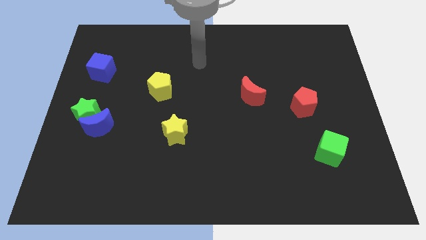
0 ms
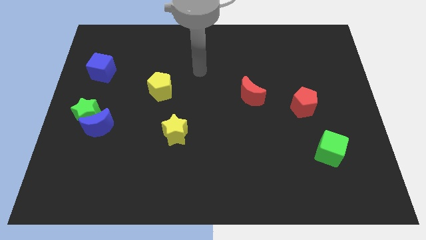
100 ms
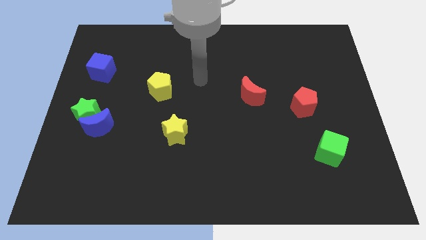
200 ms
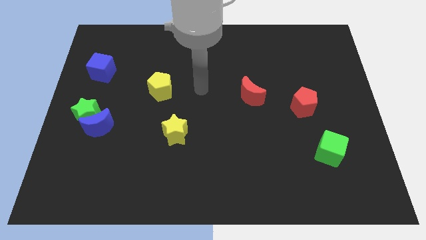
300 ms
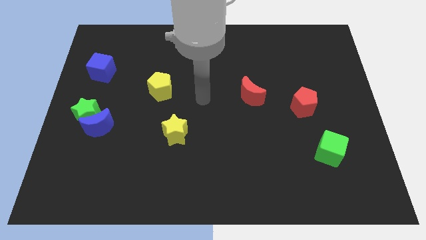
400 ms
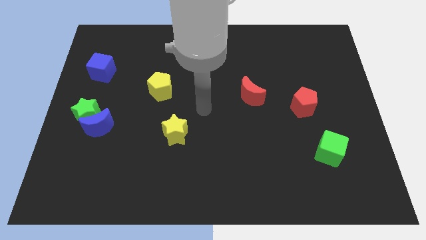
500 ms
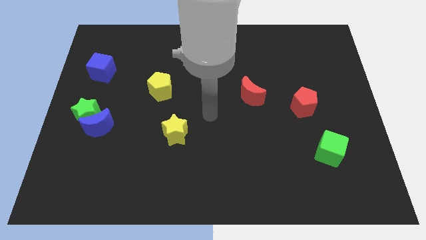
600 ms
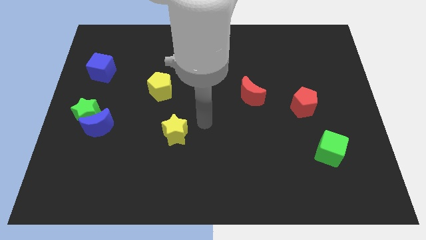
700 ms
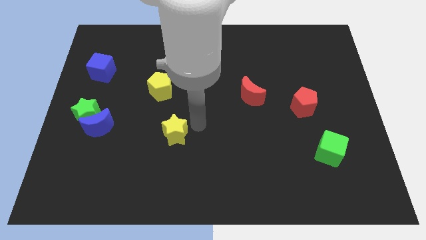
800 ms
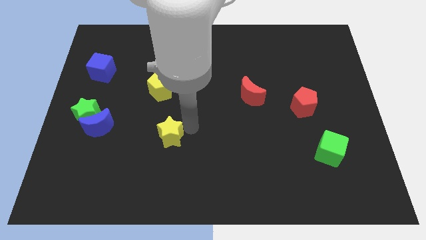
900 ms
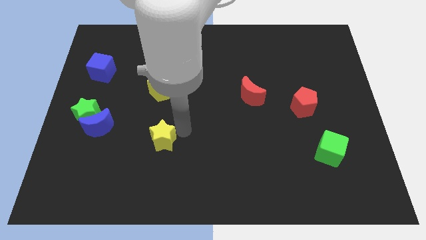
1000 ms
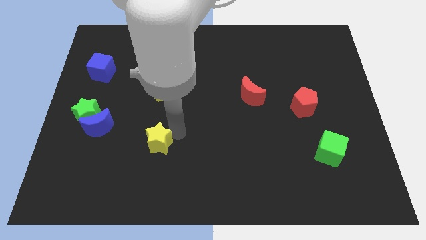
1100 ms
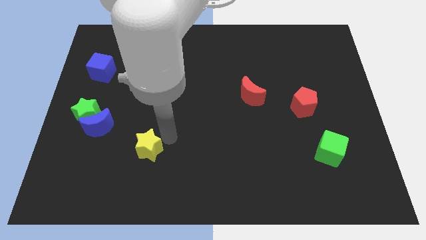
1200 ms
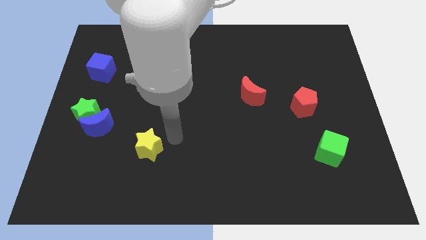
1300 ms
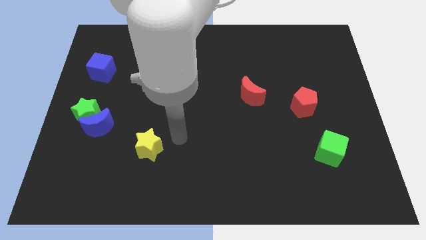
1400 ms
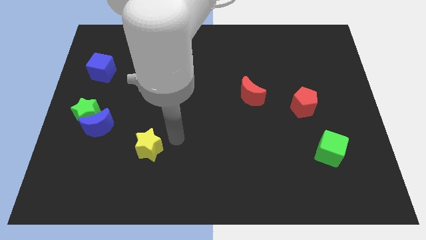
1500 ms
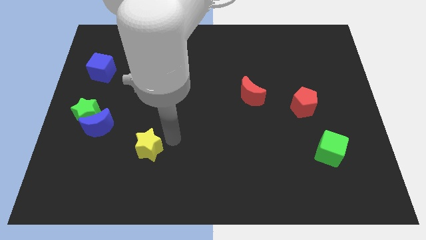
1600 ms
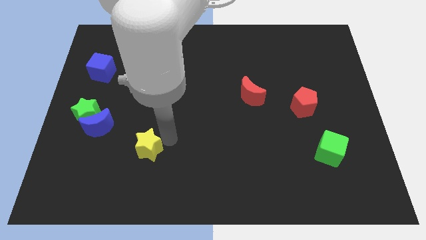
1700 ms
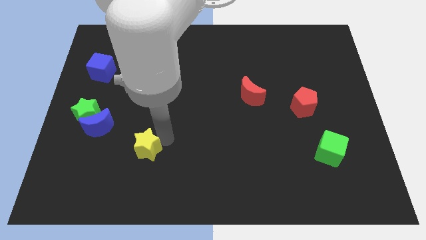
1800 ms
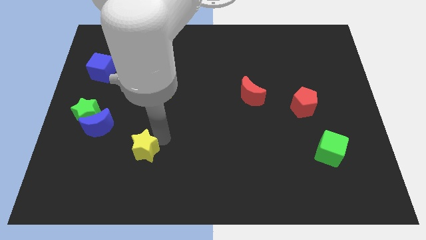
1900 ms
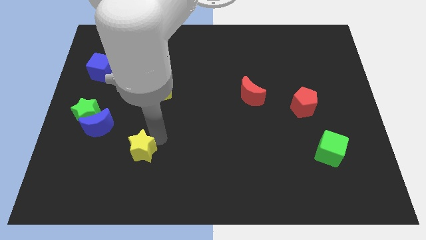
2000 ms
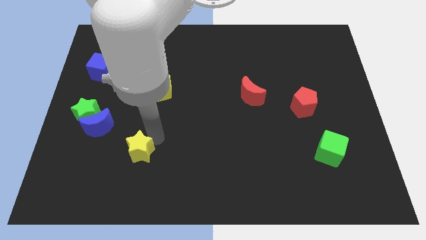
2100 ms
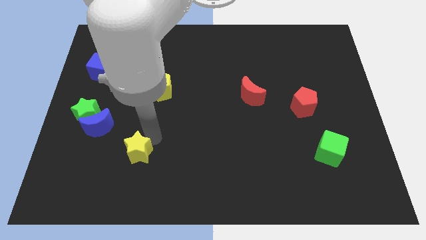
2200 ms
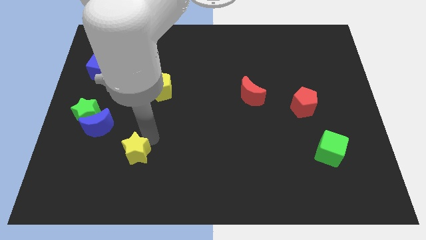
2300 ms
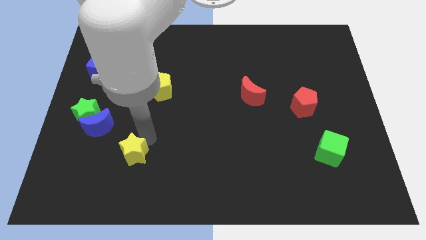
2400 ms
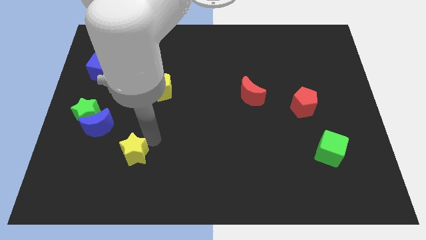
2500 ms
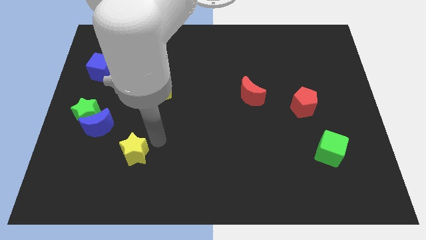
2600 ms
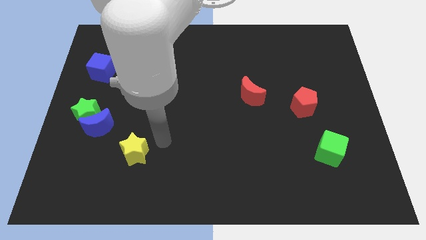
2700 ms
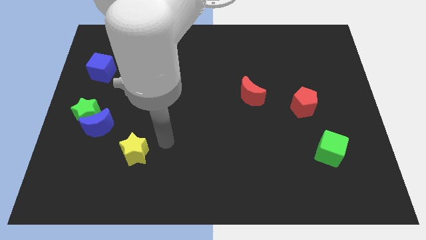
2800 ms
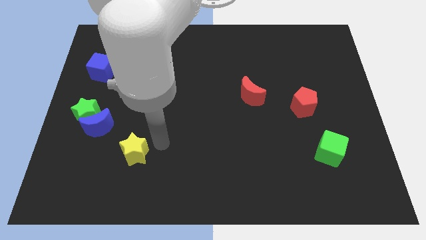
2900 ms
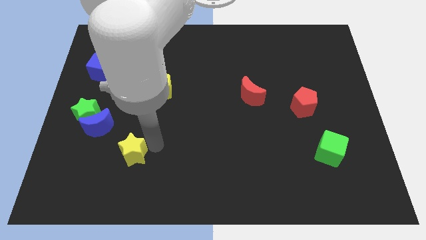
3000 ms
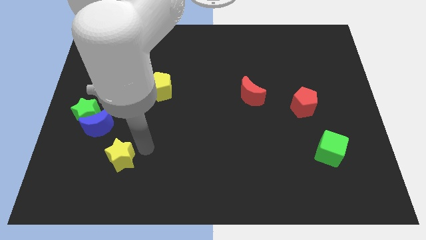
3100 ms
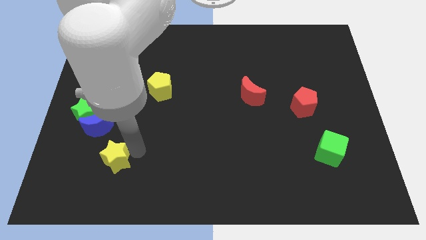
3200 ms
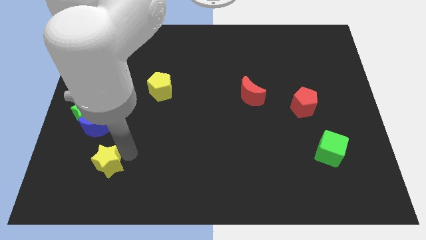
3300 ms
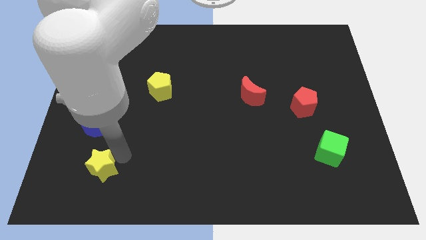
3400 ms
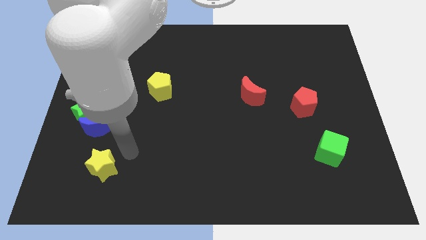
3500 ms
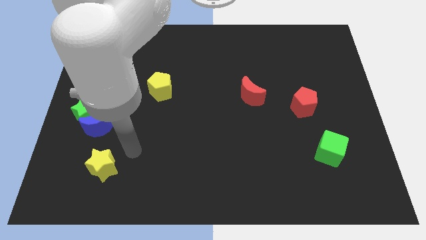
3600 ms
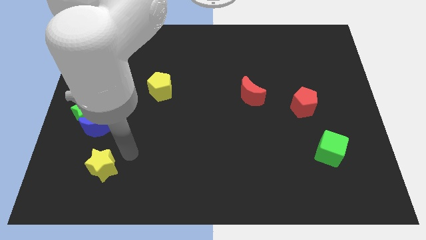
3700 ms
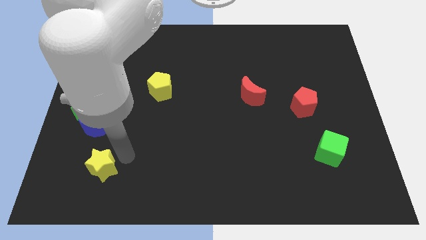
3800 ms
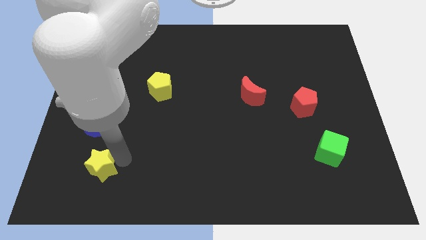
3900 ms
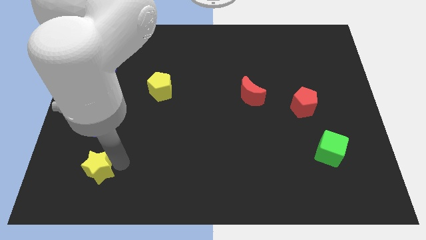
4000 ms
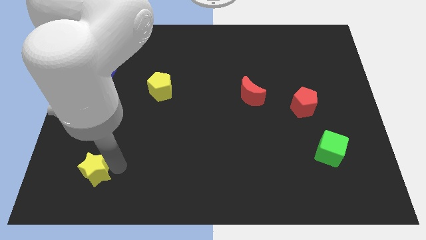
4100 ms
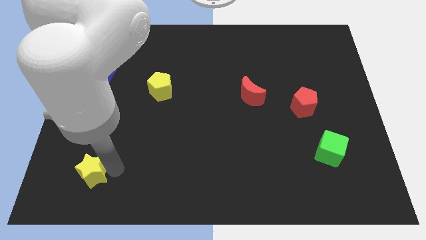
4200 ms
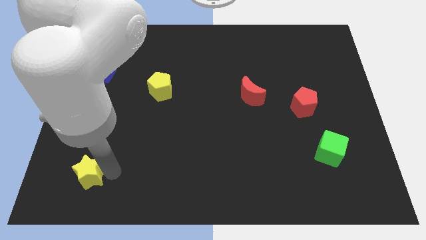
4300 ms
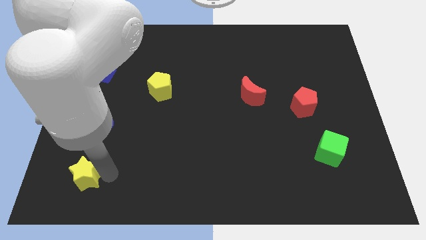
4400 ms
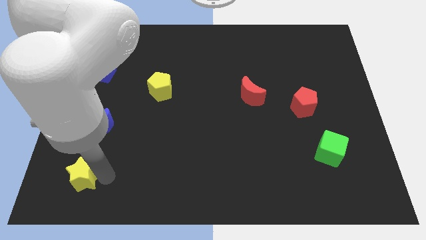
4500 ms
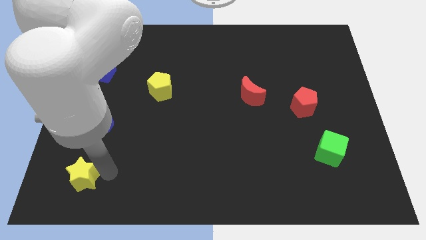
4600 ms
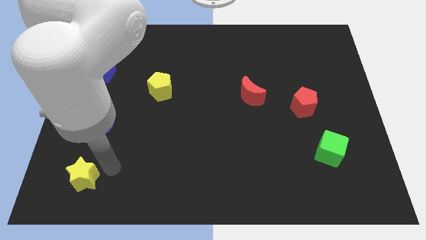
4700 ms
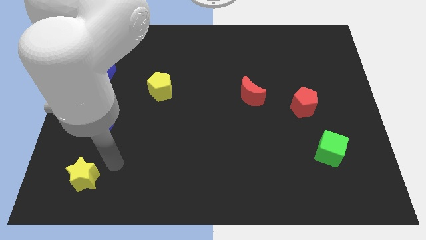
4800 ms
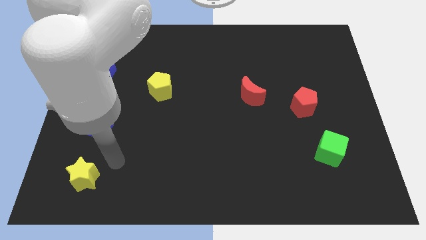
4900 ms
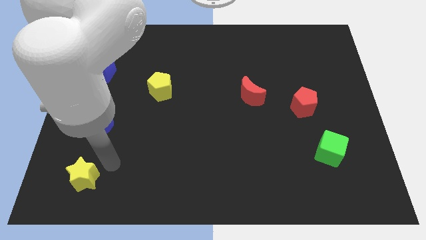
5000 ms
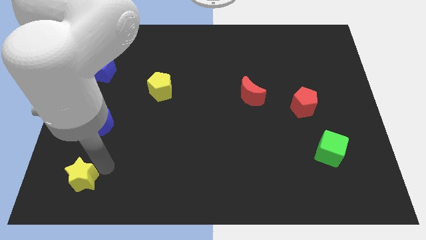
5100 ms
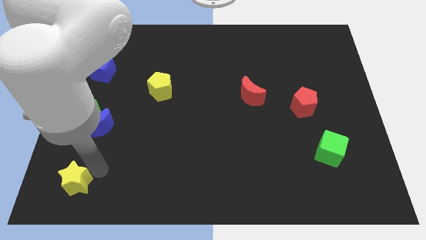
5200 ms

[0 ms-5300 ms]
push the yellow star to the bottom left of the board

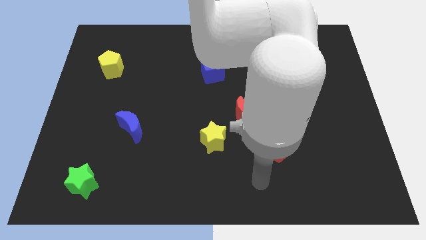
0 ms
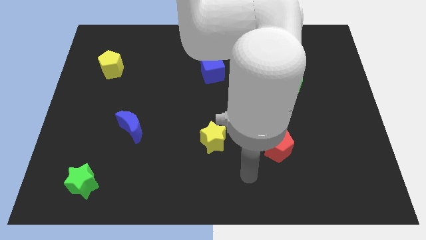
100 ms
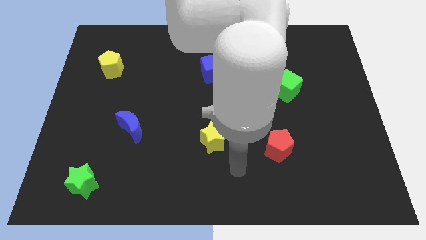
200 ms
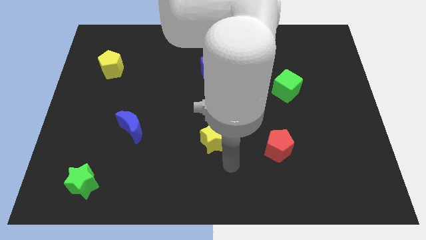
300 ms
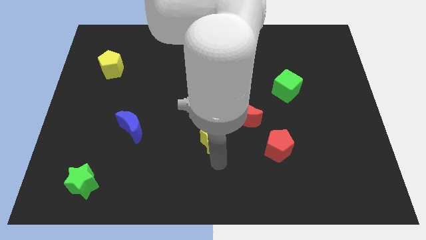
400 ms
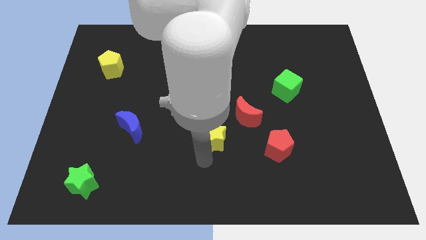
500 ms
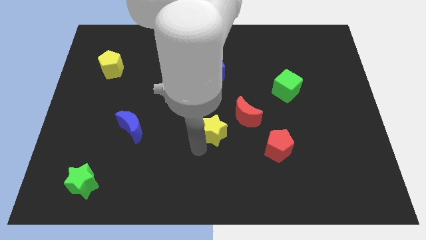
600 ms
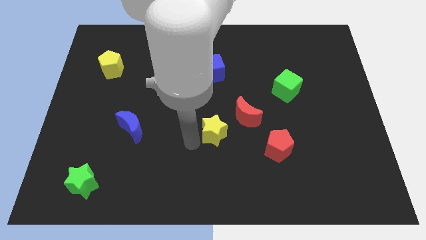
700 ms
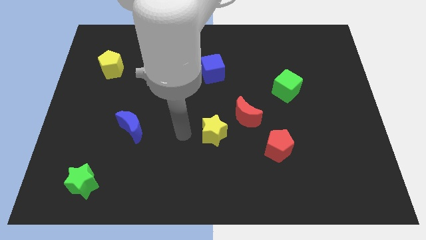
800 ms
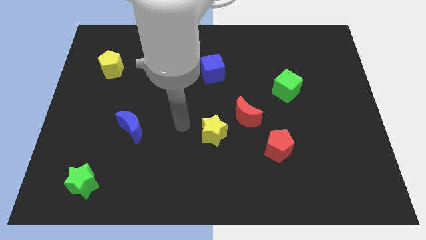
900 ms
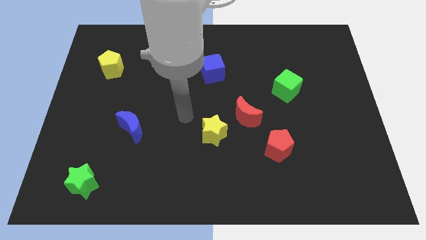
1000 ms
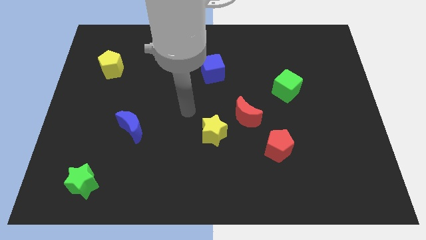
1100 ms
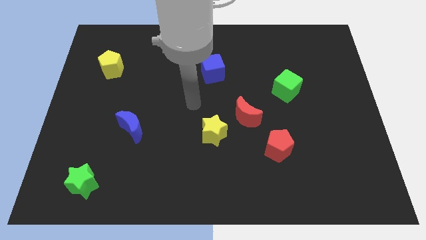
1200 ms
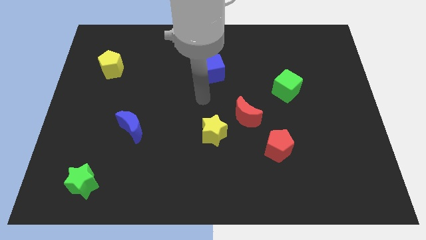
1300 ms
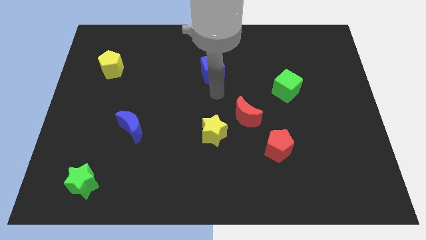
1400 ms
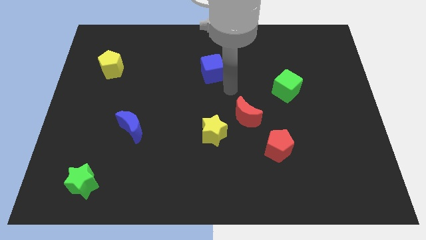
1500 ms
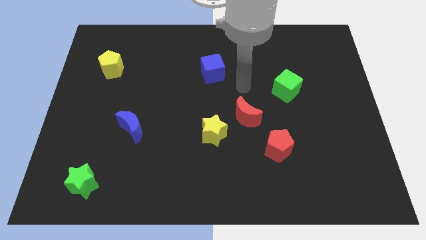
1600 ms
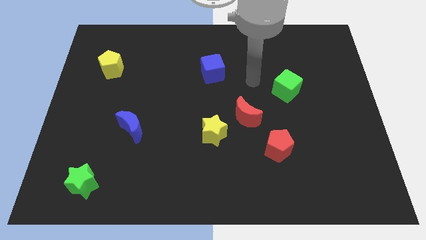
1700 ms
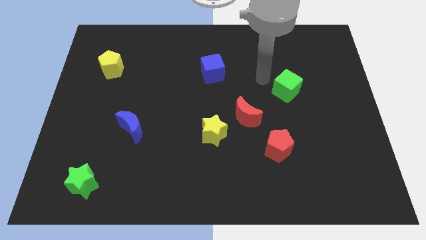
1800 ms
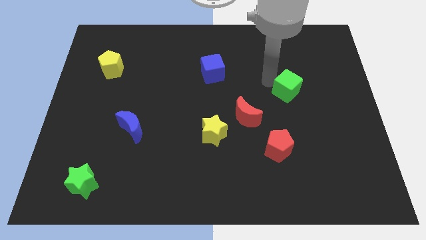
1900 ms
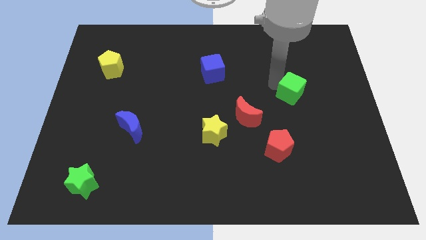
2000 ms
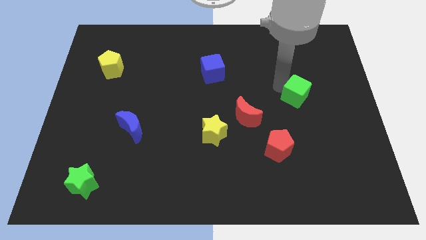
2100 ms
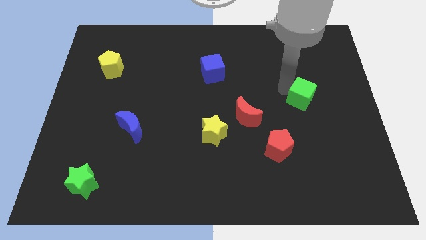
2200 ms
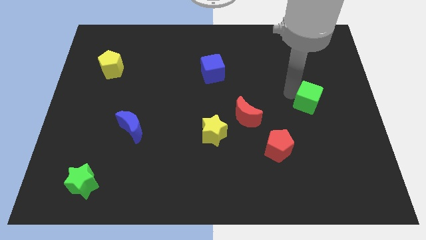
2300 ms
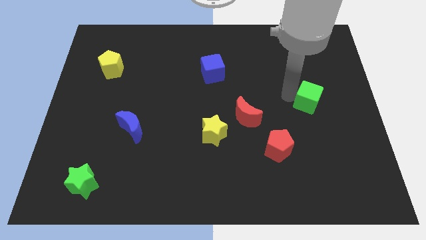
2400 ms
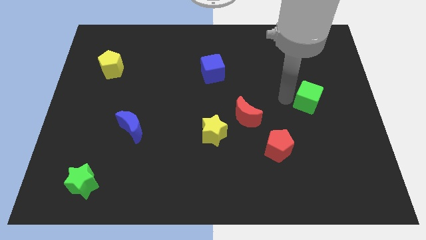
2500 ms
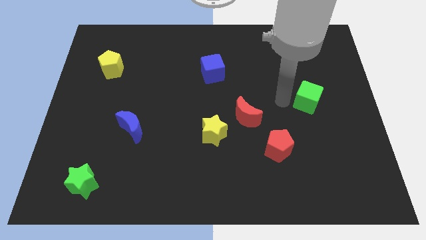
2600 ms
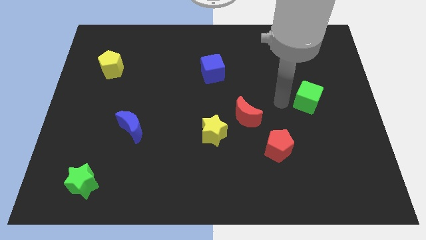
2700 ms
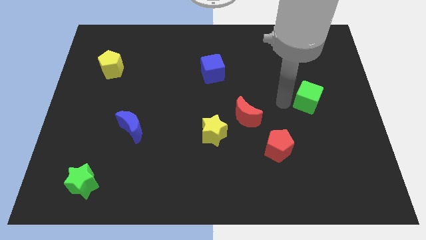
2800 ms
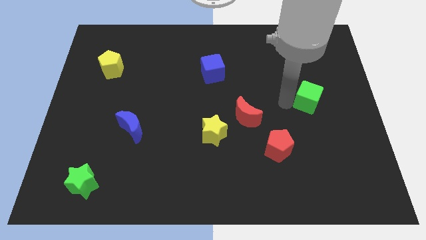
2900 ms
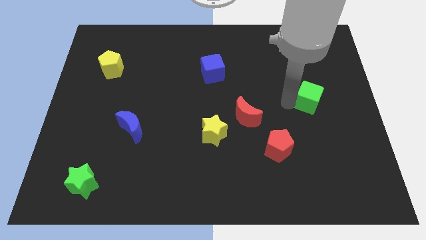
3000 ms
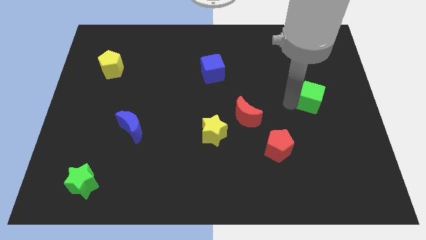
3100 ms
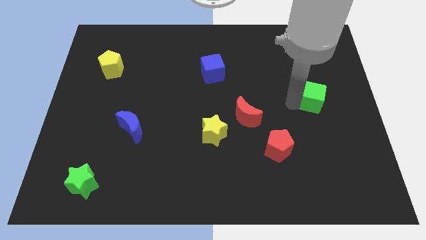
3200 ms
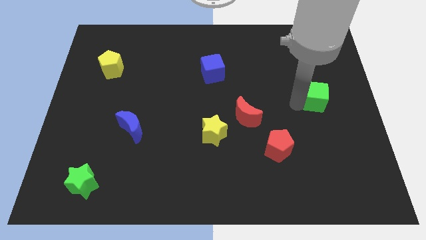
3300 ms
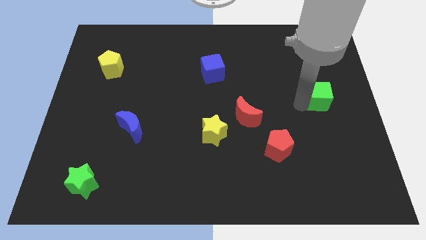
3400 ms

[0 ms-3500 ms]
put the green cube to the right side of the board
